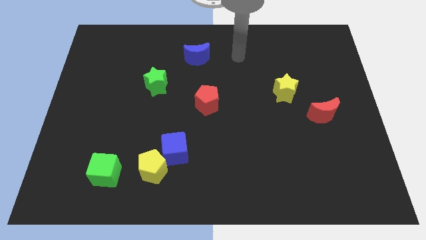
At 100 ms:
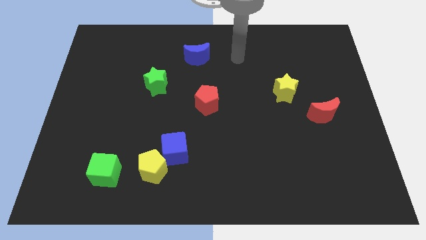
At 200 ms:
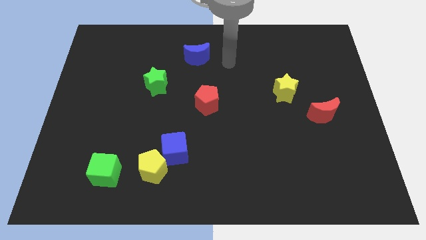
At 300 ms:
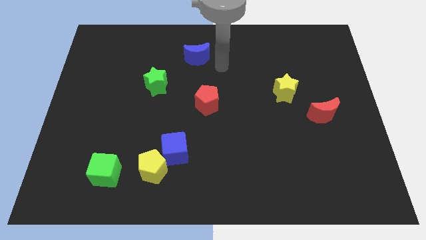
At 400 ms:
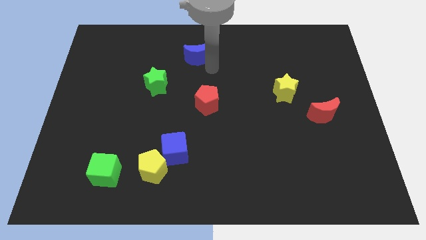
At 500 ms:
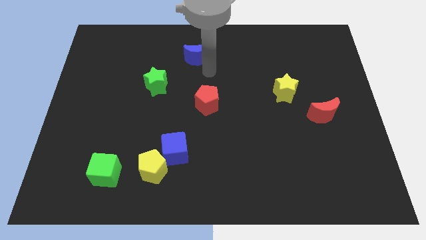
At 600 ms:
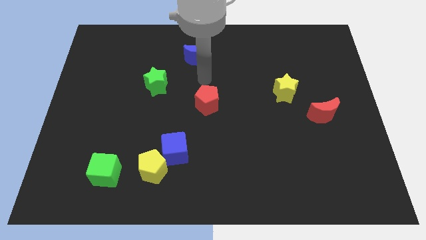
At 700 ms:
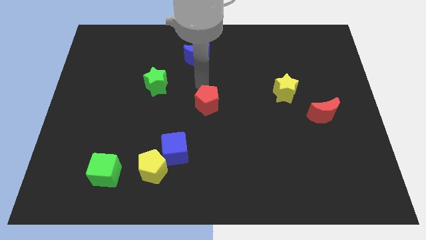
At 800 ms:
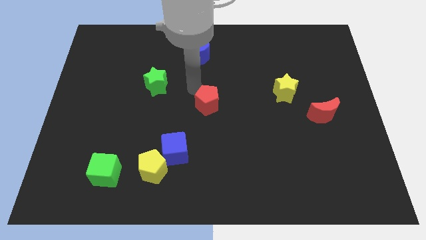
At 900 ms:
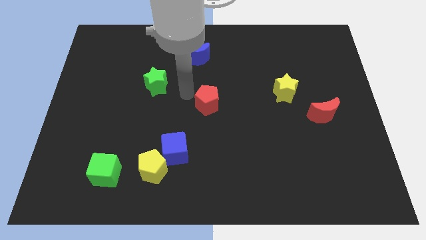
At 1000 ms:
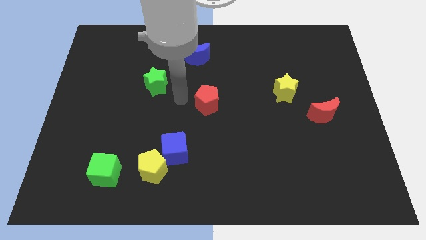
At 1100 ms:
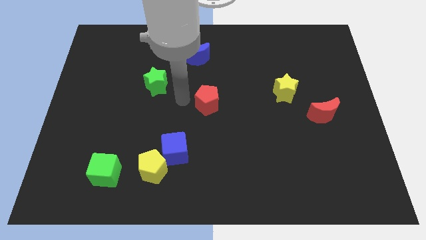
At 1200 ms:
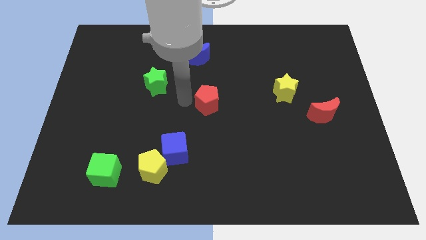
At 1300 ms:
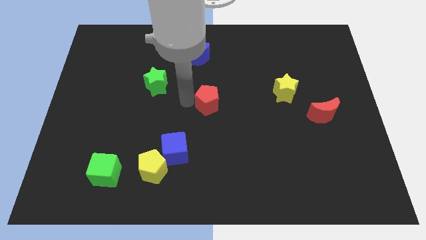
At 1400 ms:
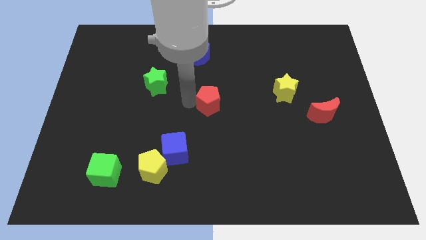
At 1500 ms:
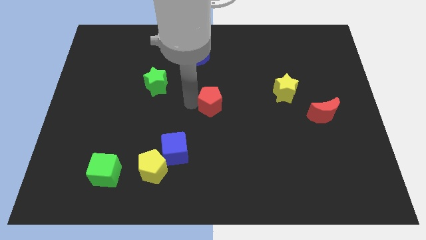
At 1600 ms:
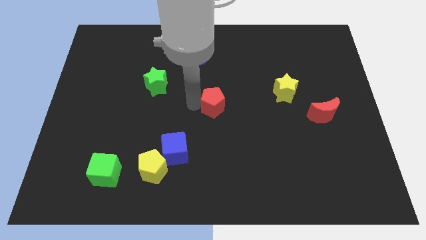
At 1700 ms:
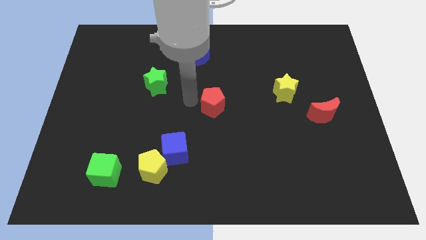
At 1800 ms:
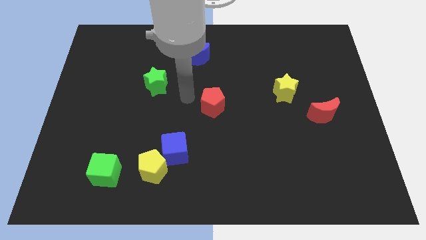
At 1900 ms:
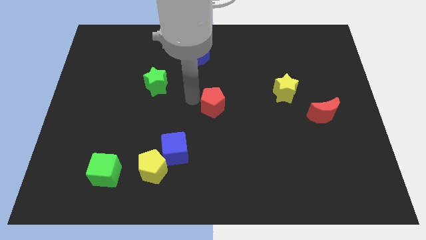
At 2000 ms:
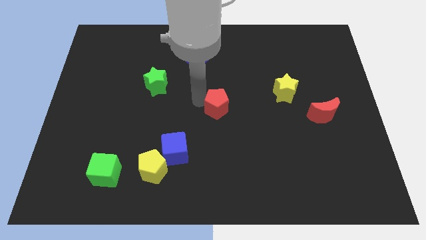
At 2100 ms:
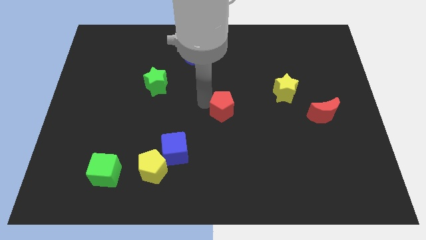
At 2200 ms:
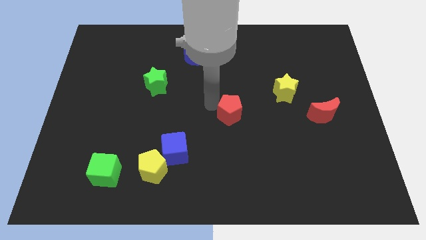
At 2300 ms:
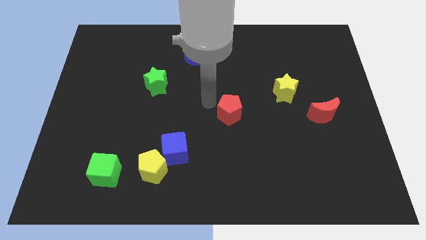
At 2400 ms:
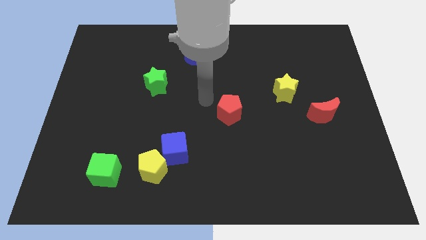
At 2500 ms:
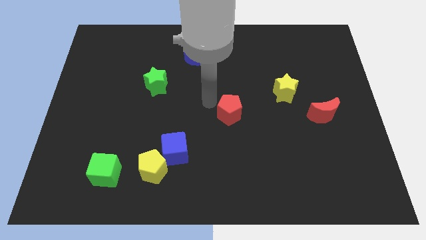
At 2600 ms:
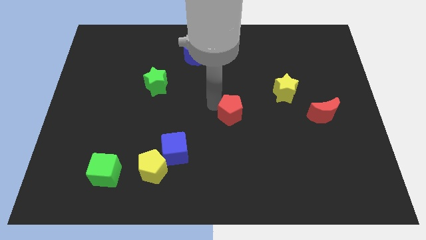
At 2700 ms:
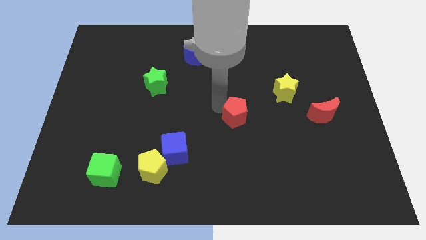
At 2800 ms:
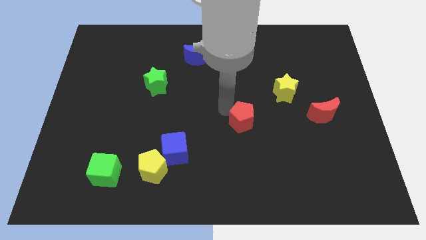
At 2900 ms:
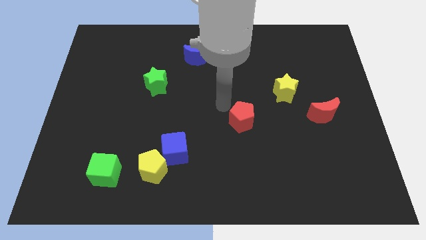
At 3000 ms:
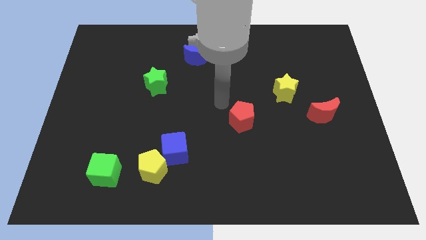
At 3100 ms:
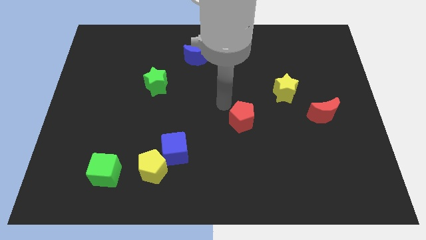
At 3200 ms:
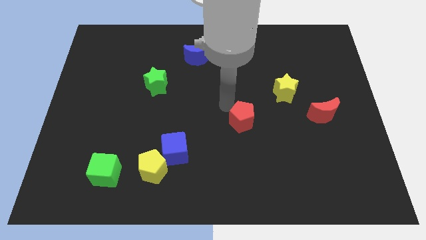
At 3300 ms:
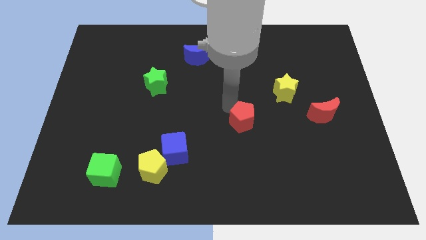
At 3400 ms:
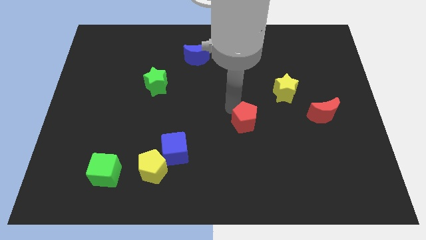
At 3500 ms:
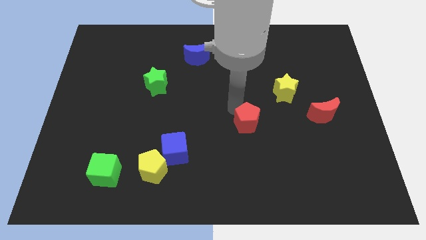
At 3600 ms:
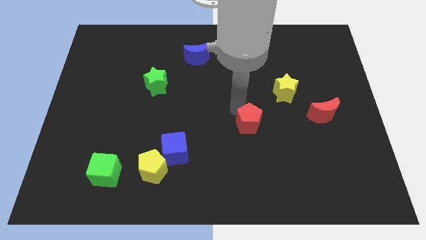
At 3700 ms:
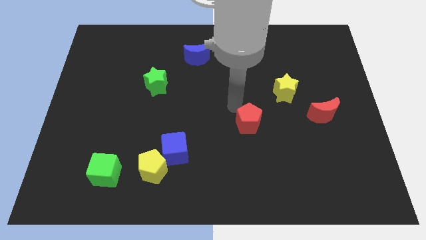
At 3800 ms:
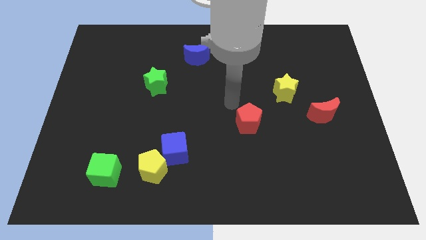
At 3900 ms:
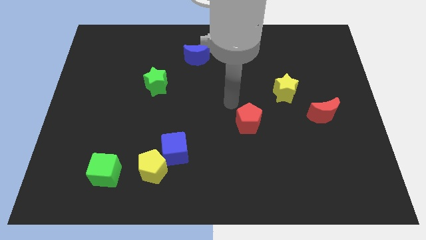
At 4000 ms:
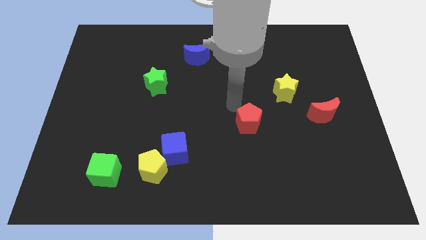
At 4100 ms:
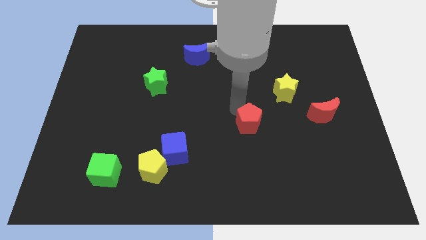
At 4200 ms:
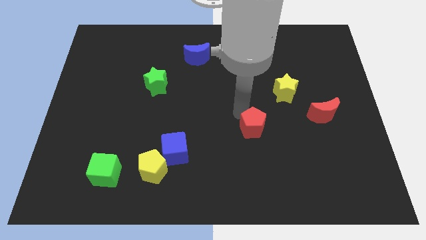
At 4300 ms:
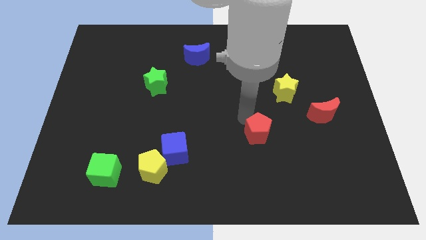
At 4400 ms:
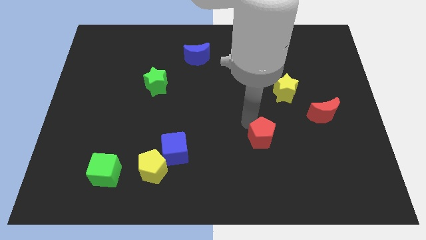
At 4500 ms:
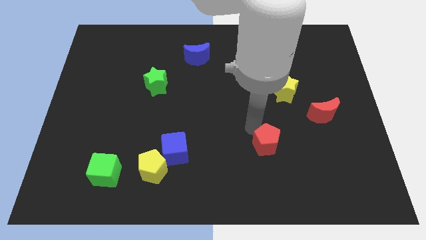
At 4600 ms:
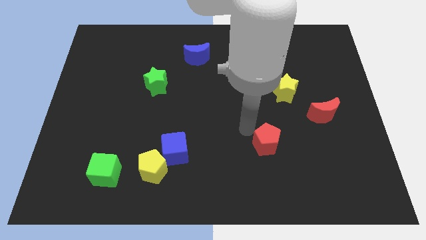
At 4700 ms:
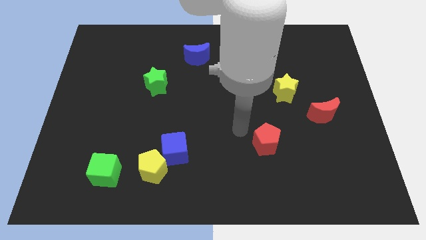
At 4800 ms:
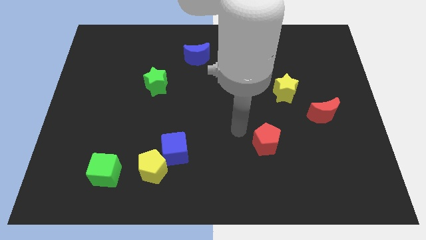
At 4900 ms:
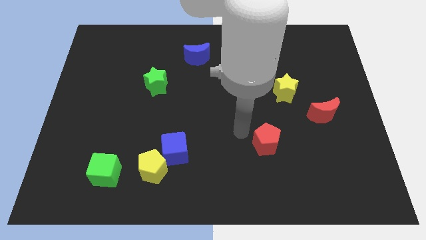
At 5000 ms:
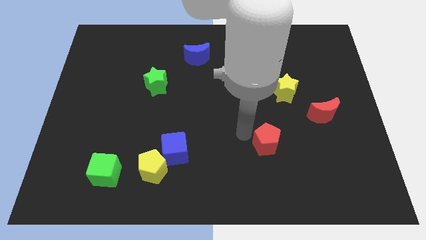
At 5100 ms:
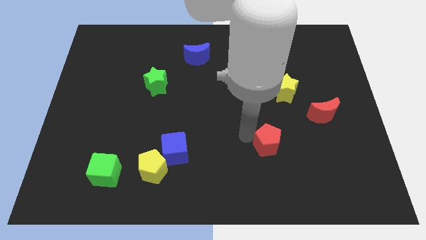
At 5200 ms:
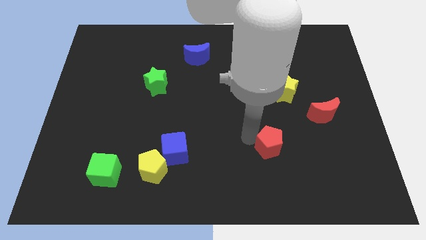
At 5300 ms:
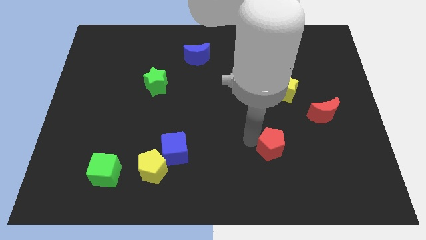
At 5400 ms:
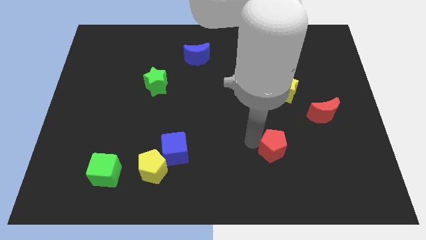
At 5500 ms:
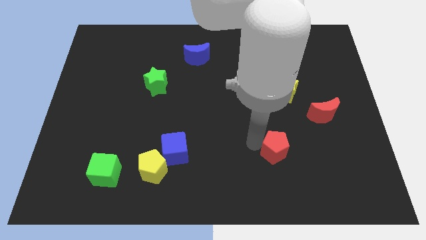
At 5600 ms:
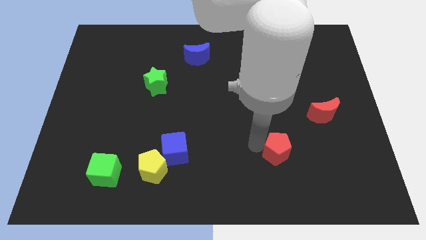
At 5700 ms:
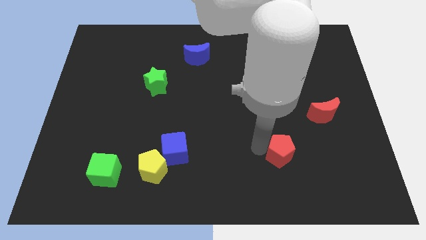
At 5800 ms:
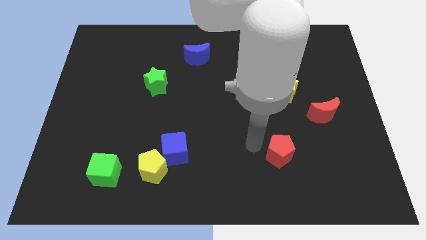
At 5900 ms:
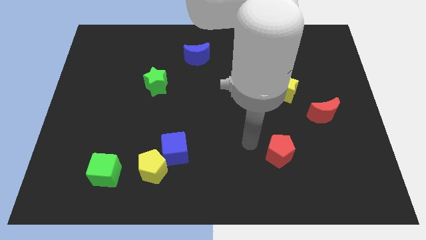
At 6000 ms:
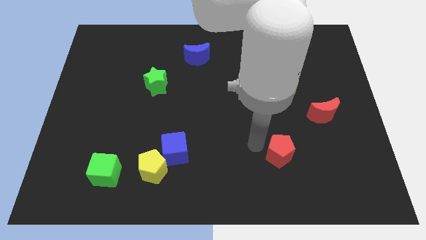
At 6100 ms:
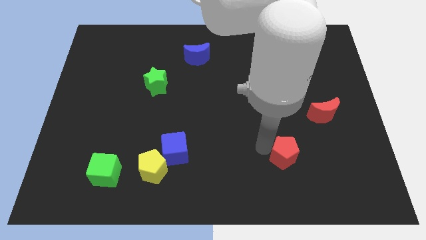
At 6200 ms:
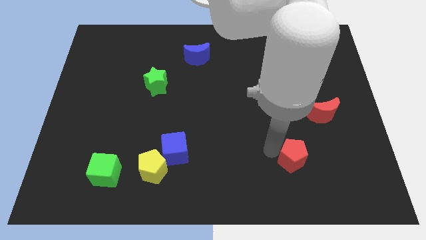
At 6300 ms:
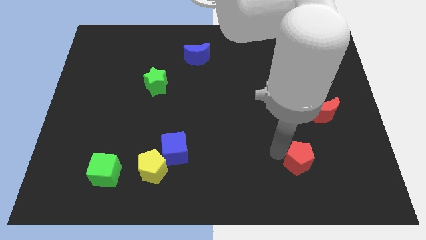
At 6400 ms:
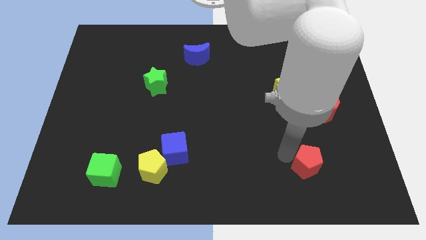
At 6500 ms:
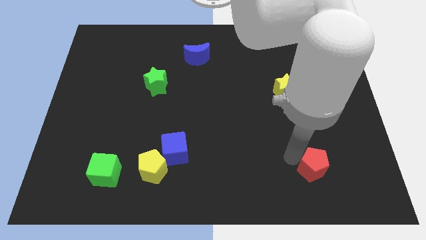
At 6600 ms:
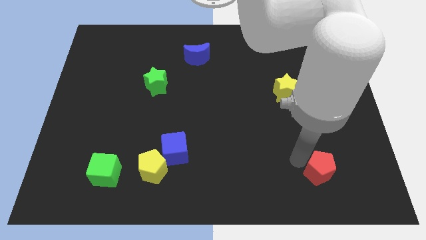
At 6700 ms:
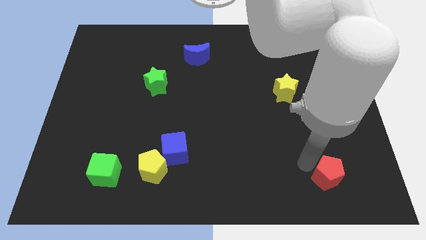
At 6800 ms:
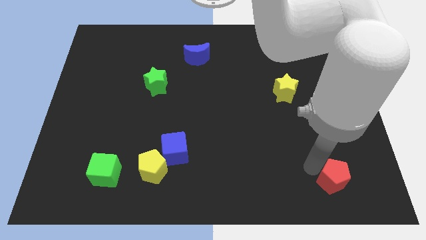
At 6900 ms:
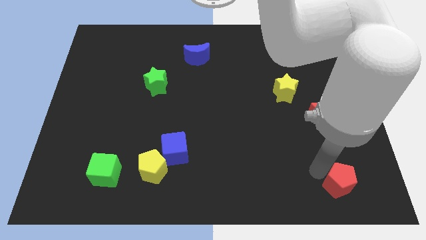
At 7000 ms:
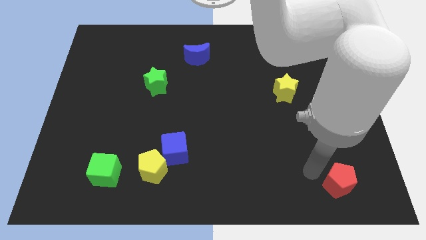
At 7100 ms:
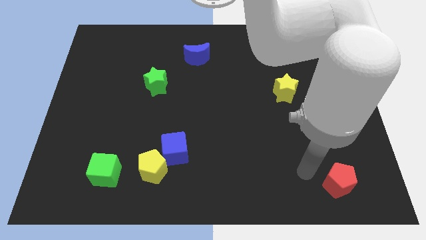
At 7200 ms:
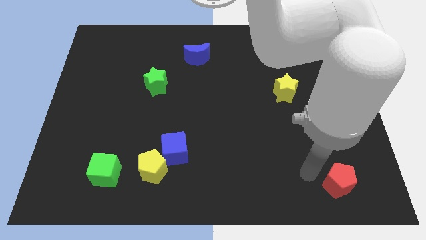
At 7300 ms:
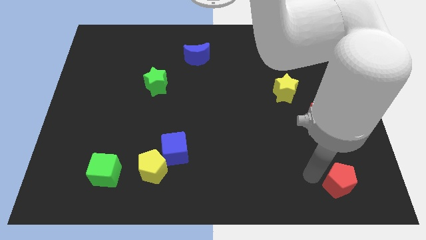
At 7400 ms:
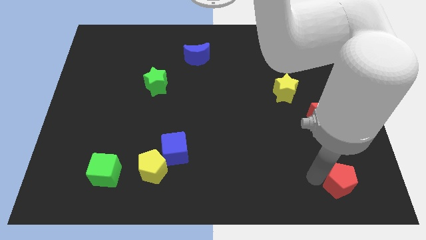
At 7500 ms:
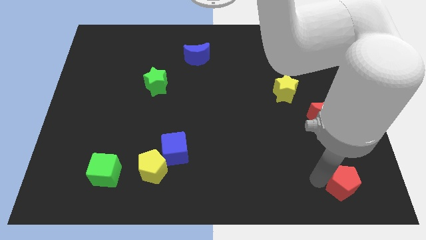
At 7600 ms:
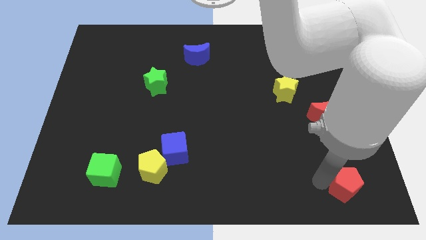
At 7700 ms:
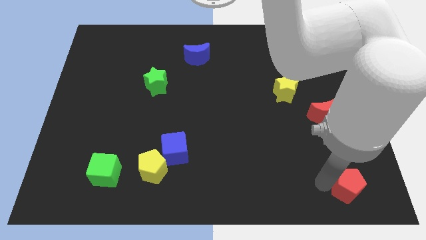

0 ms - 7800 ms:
move the red pentagon to the bottom right corner
